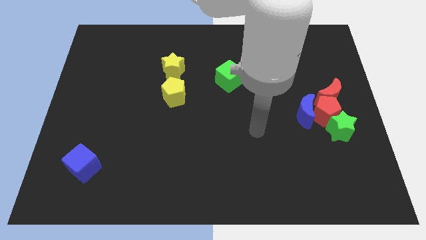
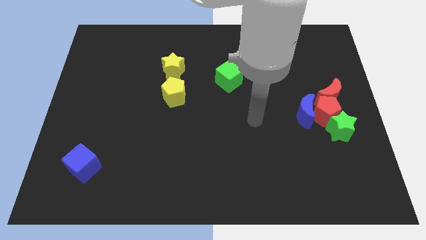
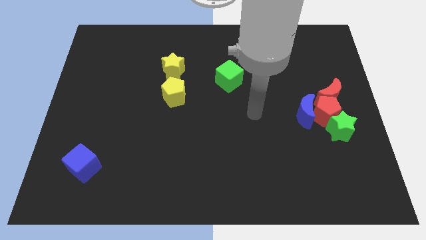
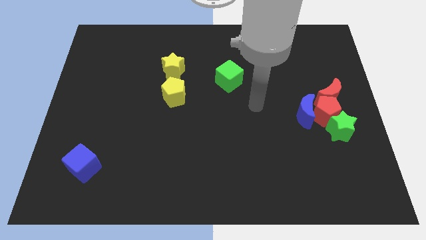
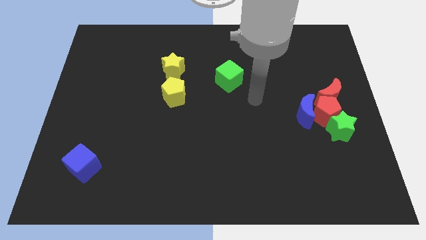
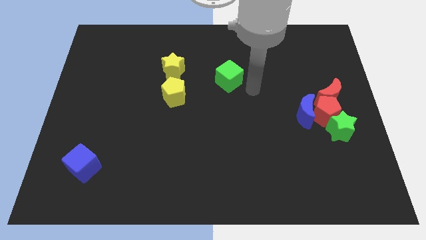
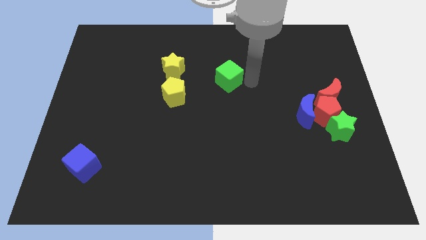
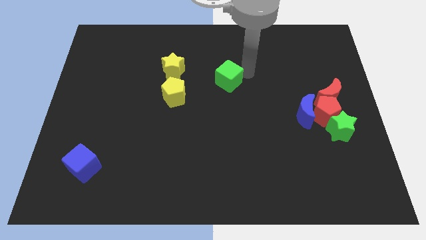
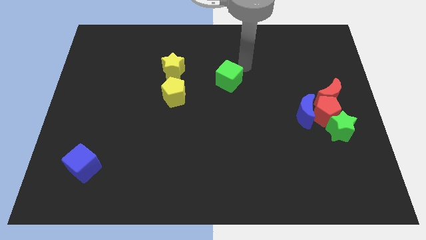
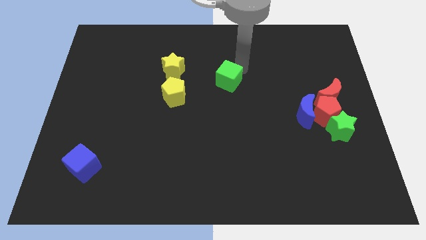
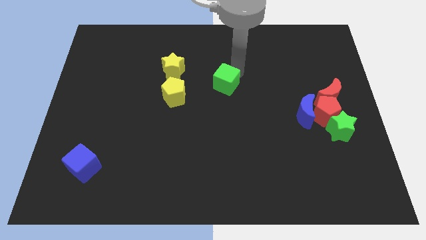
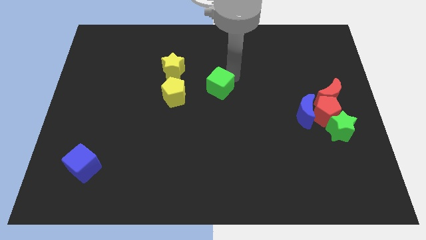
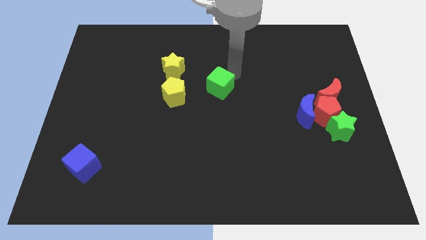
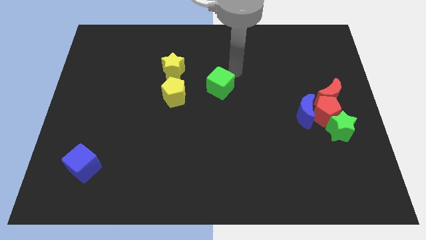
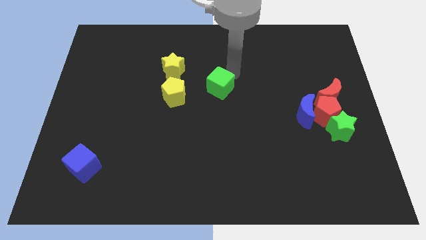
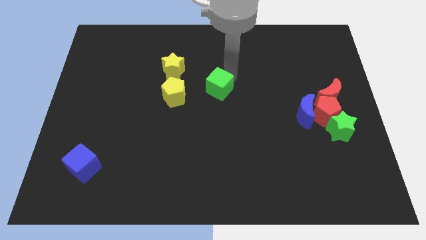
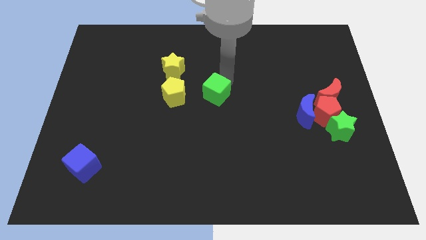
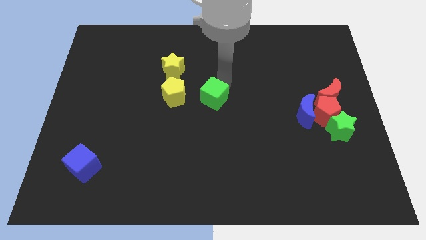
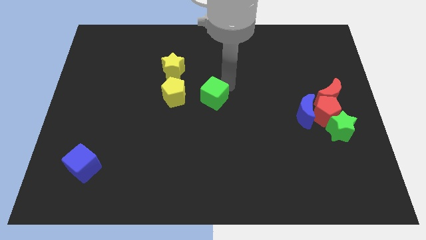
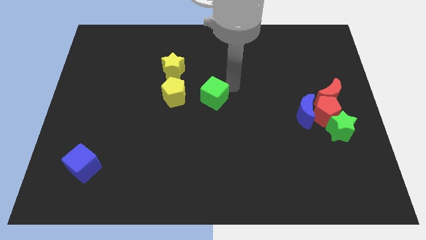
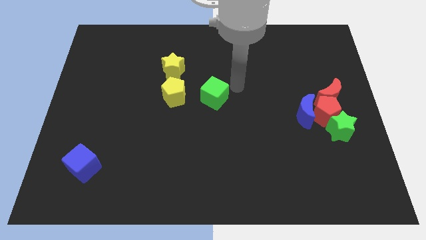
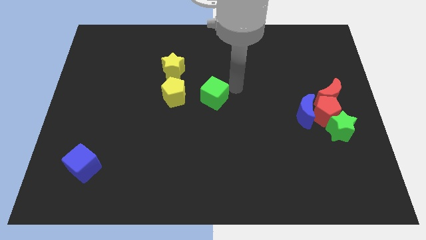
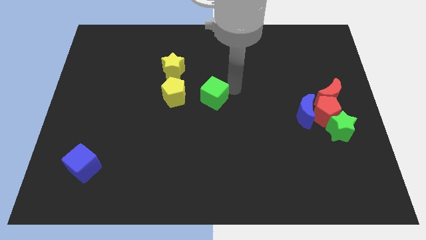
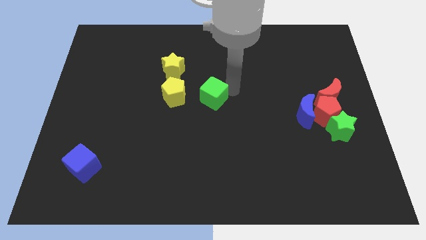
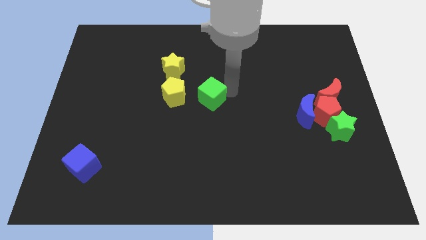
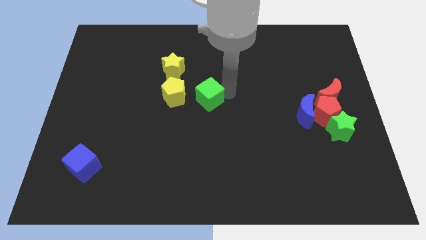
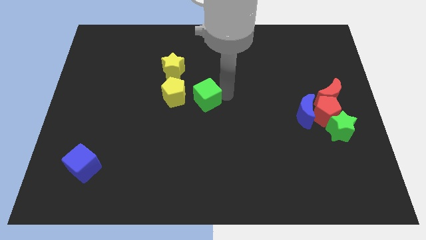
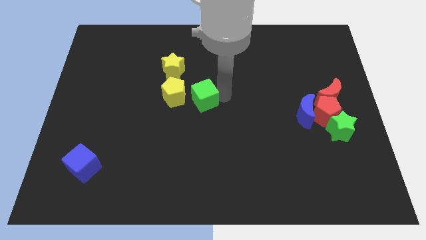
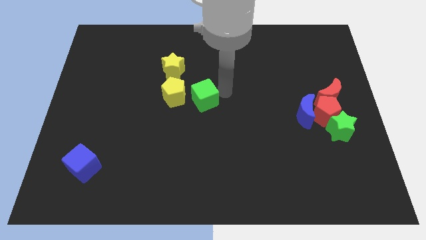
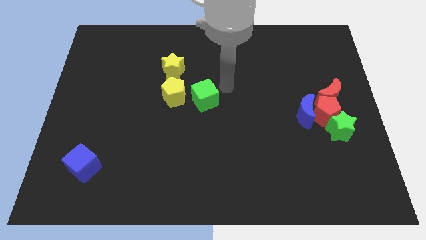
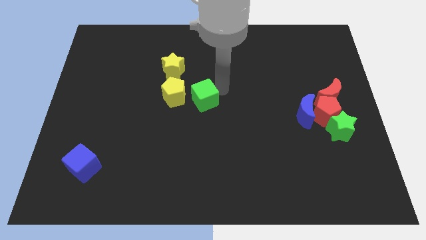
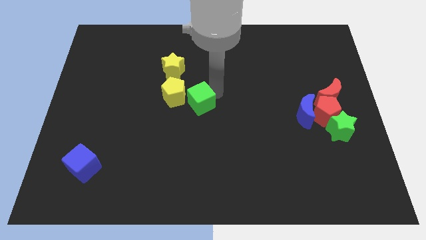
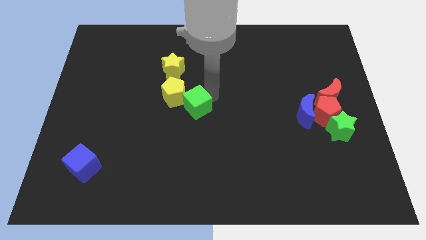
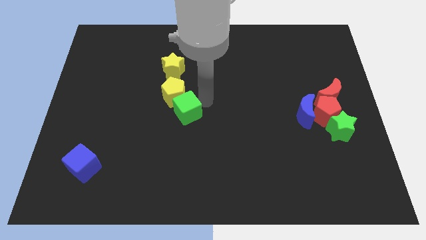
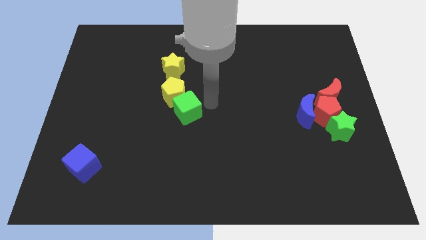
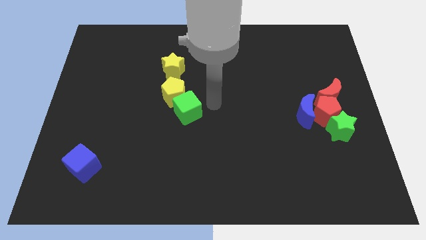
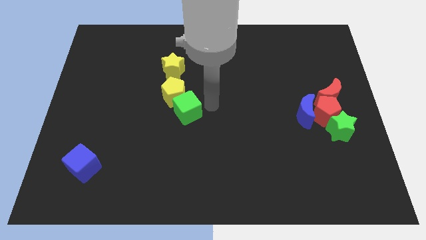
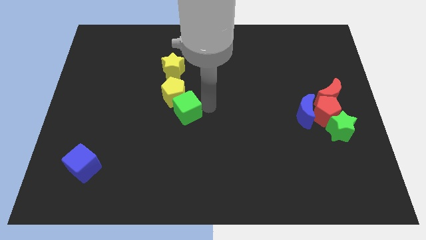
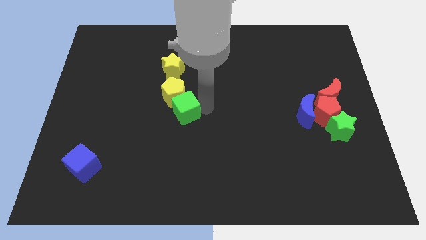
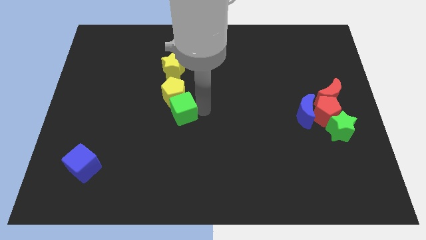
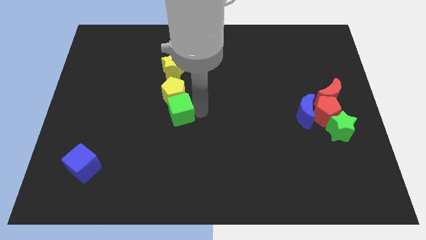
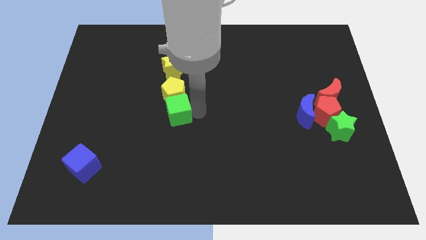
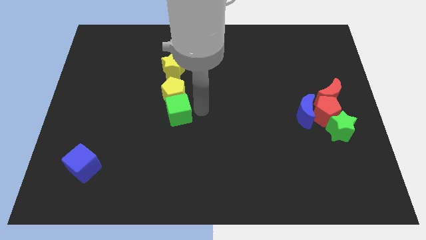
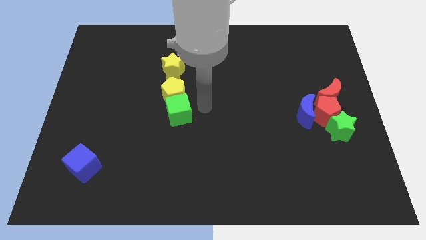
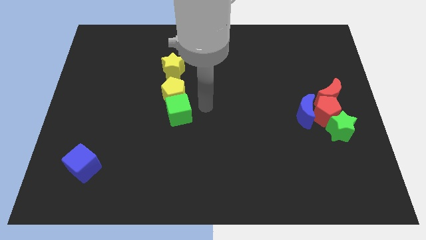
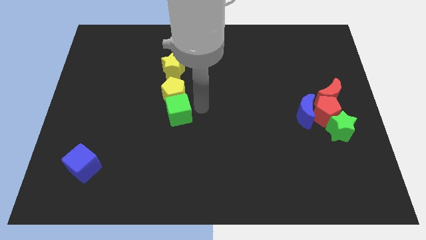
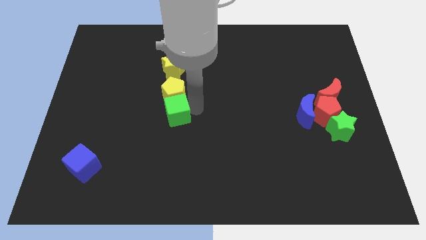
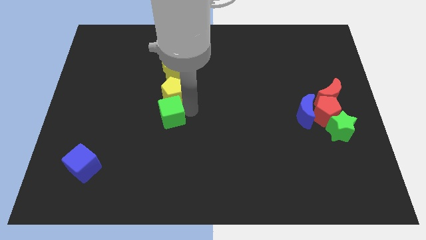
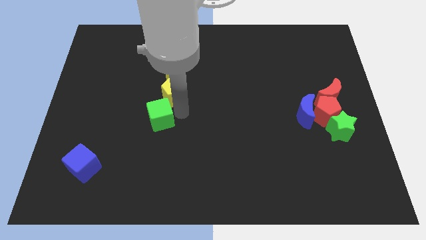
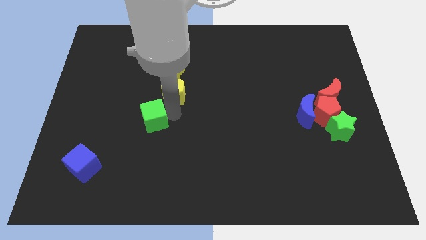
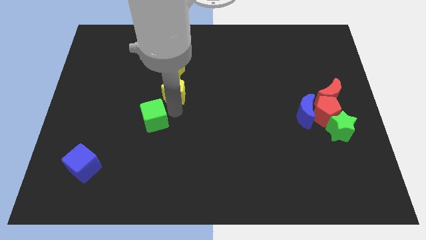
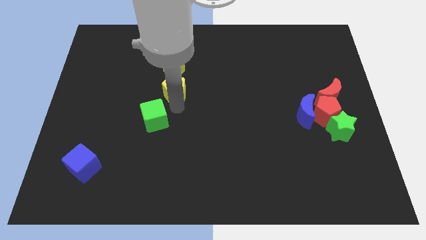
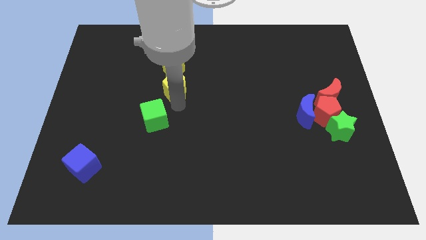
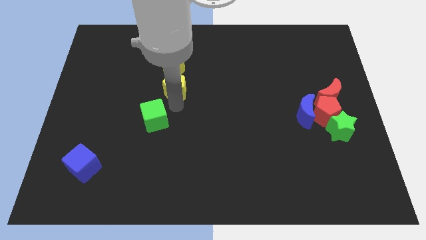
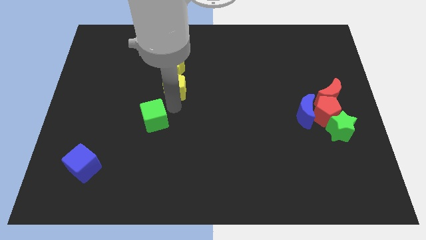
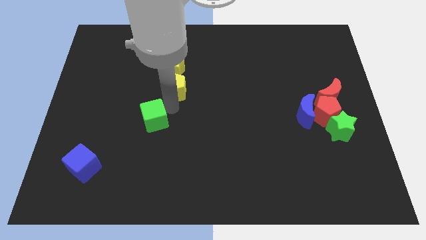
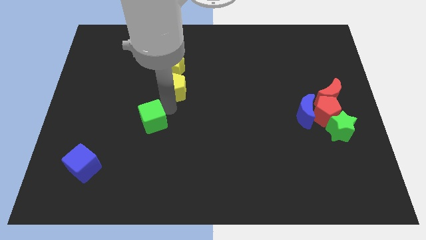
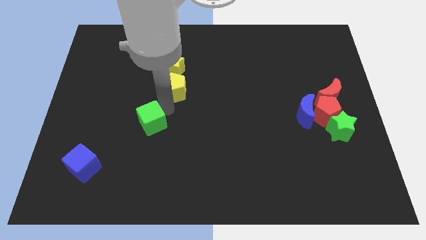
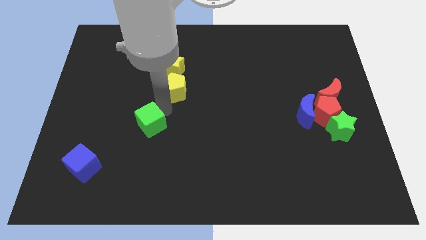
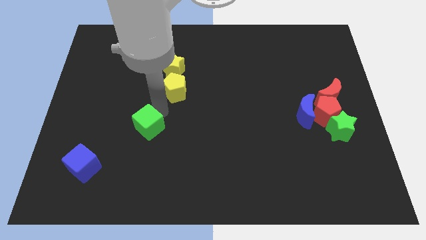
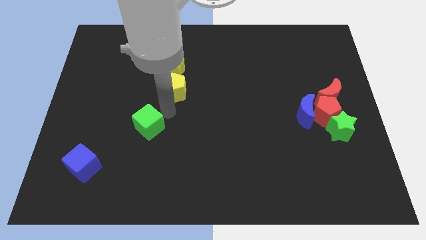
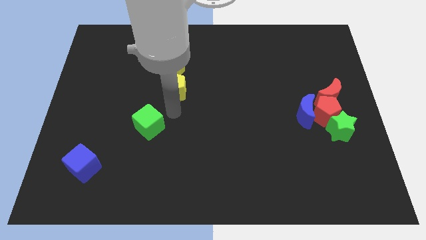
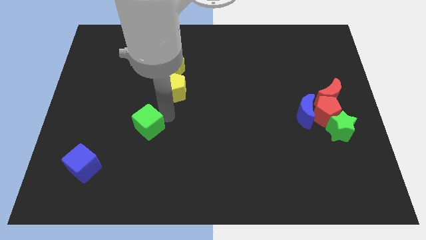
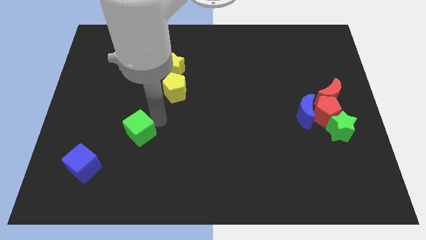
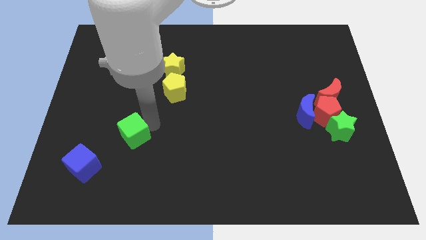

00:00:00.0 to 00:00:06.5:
slide the green cube to the top right of the blue cube

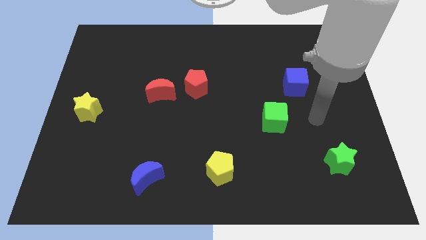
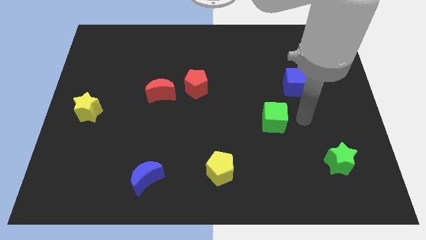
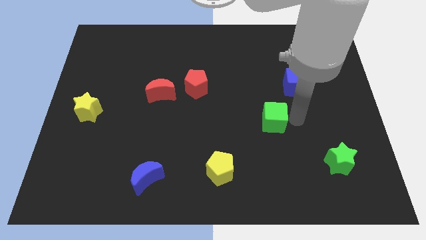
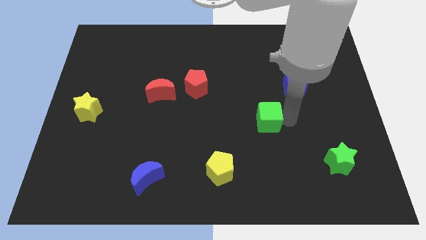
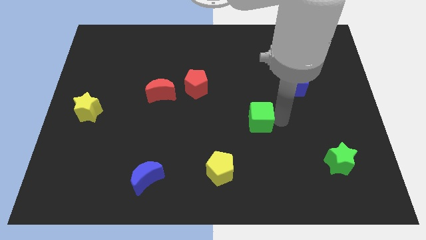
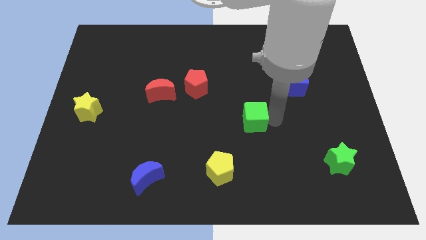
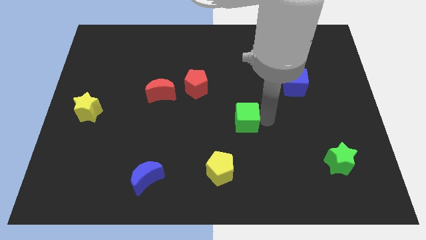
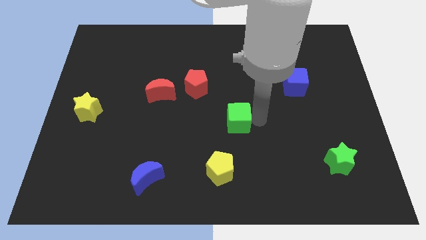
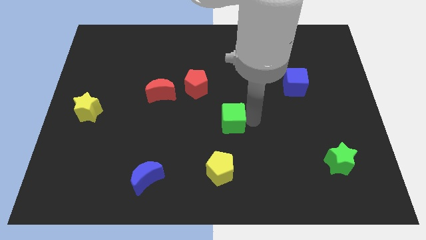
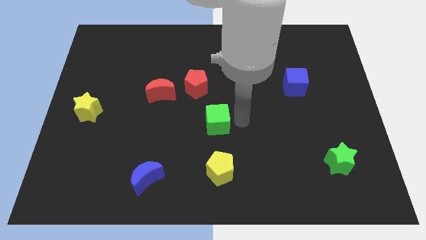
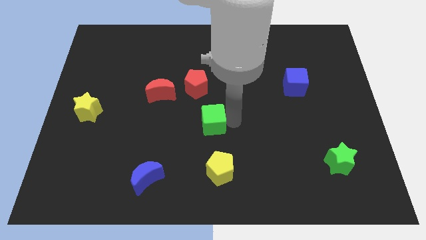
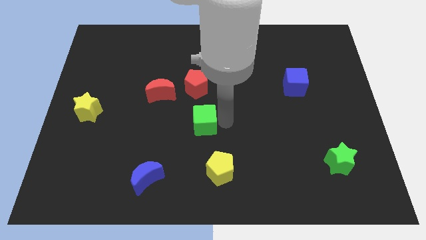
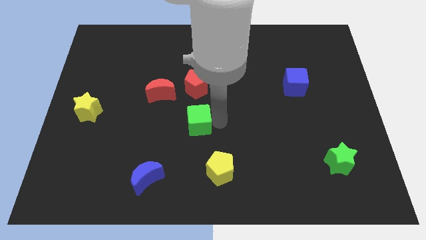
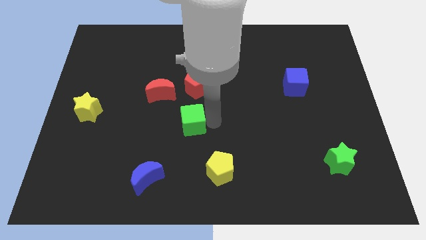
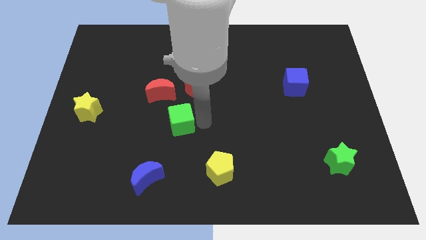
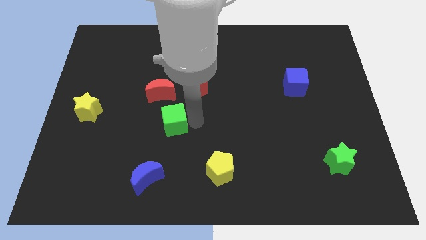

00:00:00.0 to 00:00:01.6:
push the green cube to the bottom of the red moon
